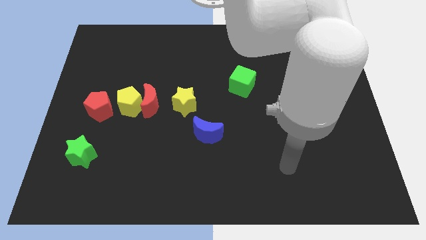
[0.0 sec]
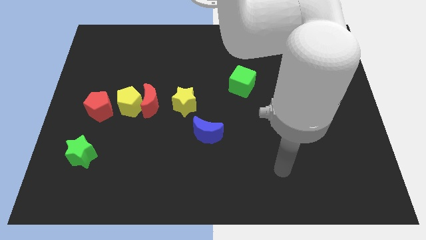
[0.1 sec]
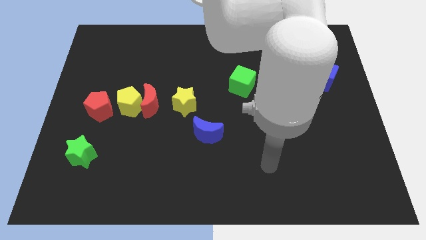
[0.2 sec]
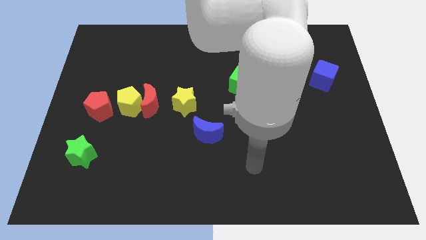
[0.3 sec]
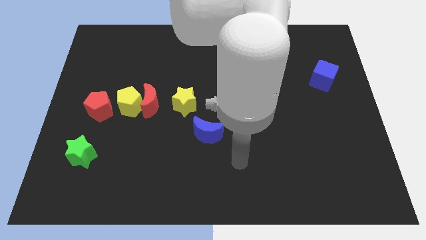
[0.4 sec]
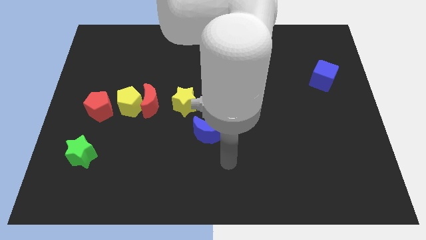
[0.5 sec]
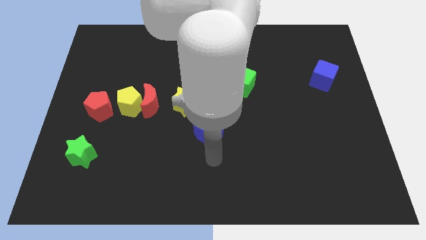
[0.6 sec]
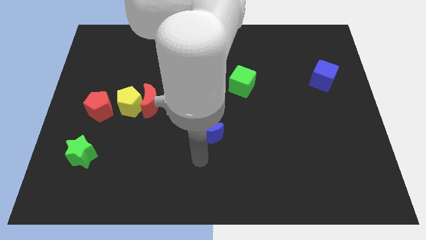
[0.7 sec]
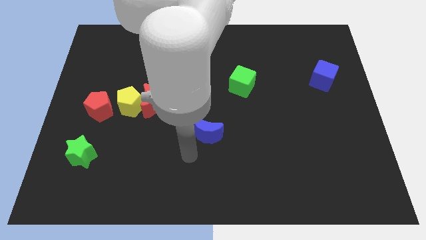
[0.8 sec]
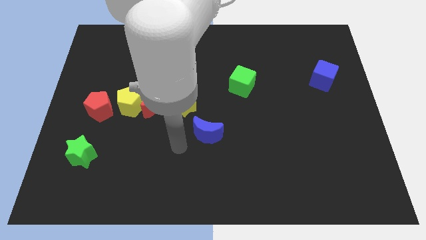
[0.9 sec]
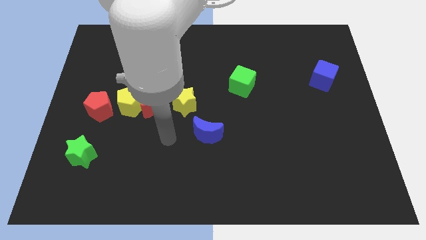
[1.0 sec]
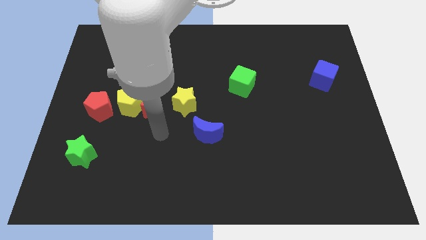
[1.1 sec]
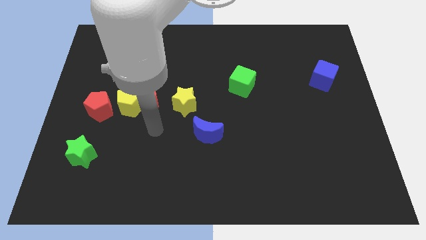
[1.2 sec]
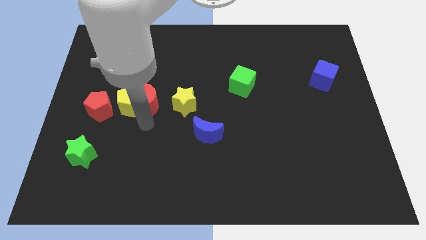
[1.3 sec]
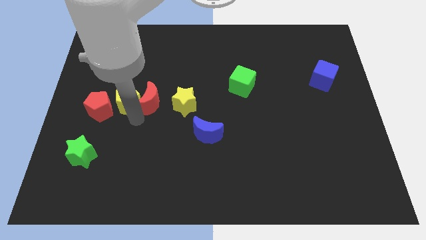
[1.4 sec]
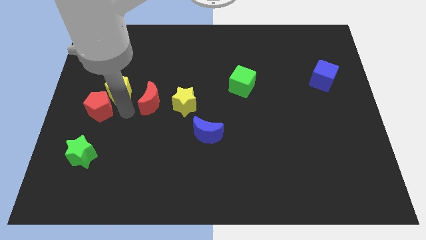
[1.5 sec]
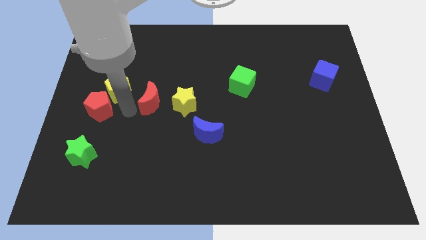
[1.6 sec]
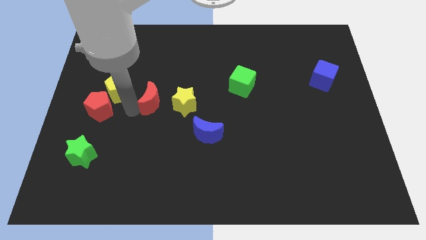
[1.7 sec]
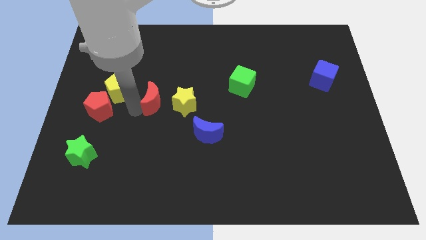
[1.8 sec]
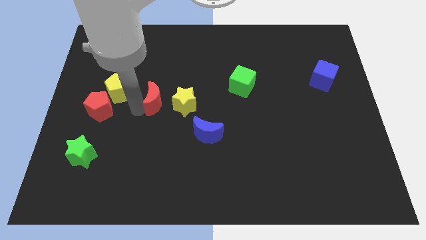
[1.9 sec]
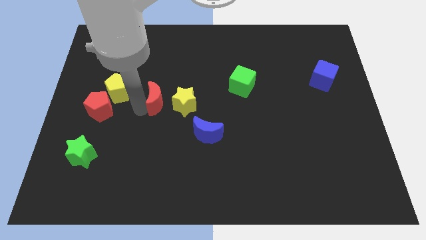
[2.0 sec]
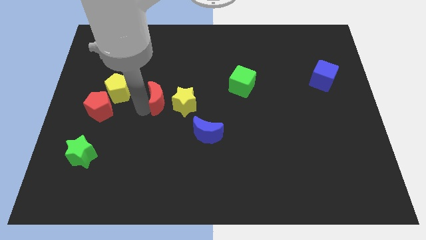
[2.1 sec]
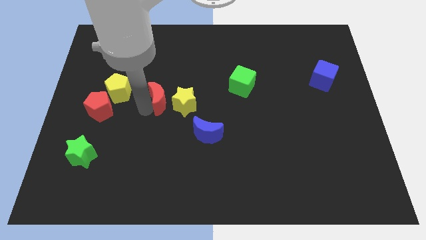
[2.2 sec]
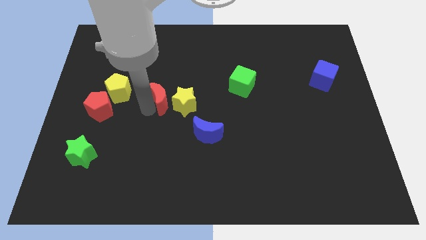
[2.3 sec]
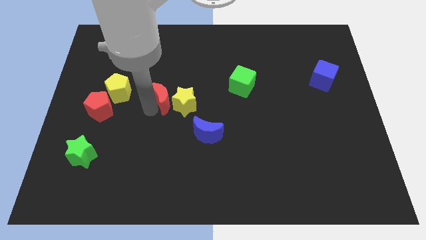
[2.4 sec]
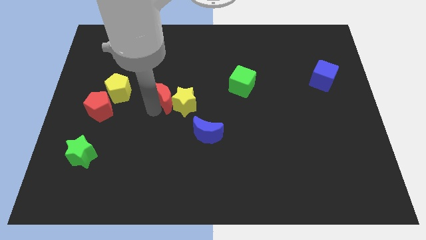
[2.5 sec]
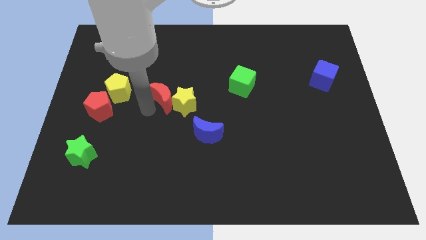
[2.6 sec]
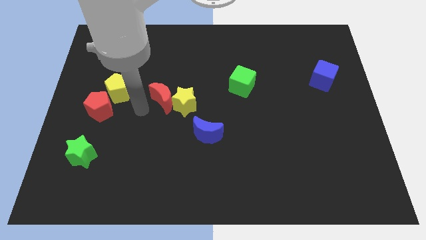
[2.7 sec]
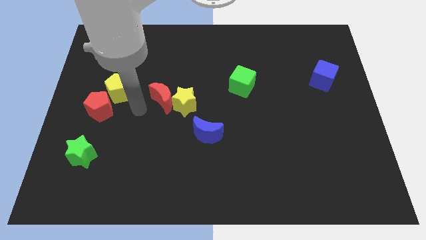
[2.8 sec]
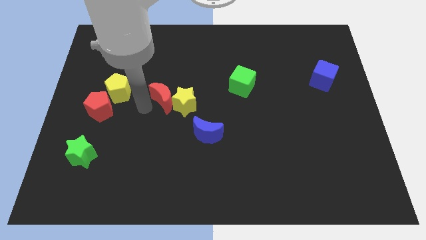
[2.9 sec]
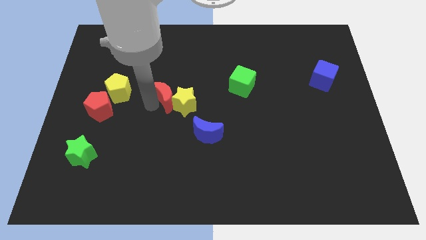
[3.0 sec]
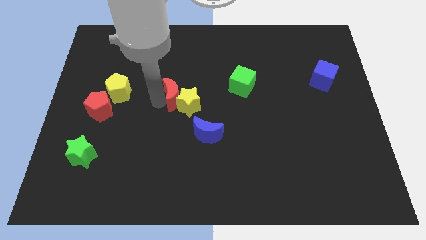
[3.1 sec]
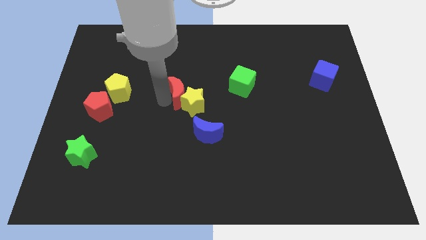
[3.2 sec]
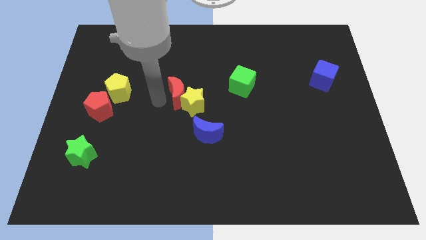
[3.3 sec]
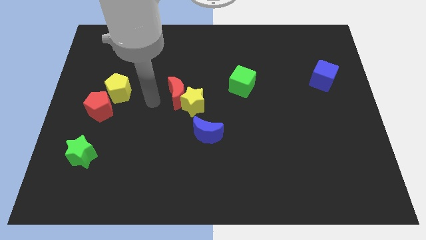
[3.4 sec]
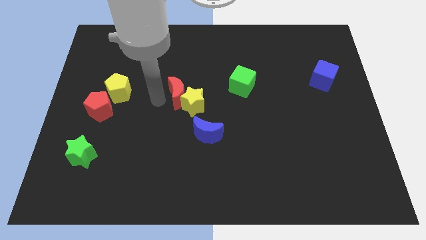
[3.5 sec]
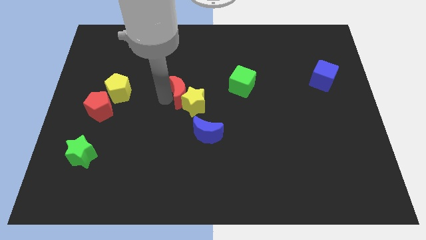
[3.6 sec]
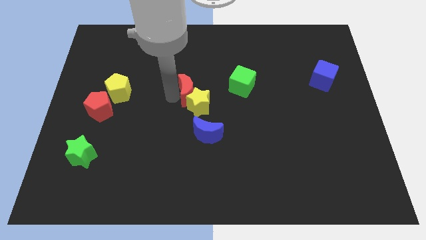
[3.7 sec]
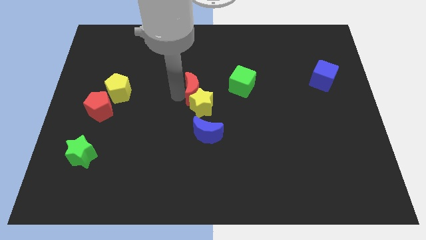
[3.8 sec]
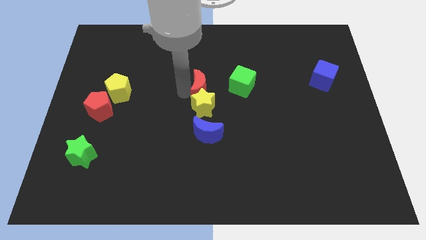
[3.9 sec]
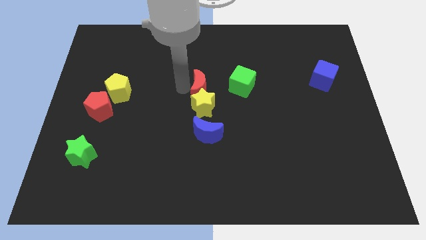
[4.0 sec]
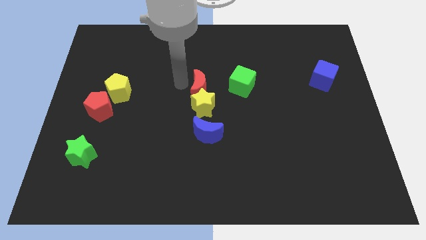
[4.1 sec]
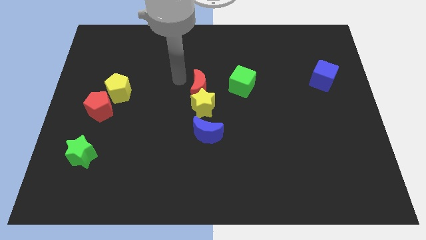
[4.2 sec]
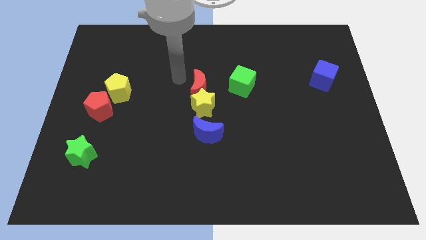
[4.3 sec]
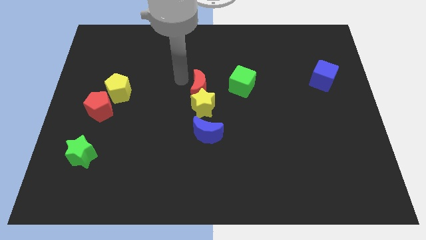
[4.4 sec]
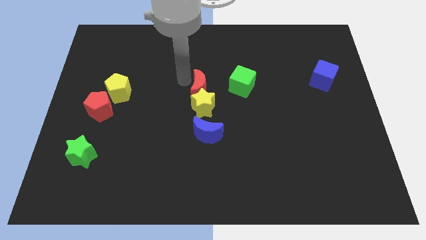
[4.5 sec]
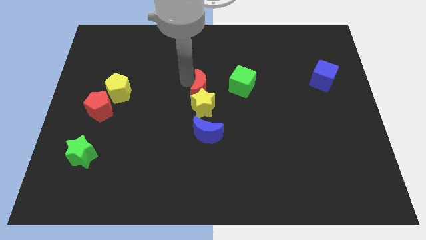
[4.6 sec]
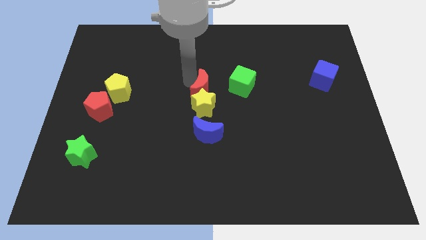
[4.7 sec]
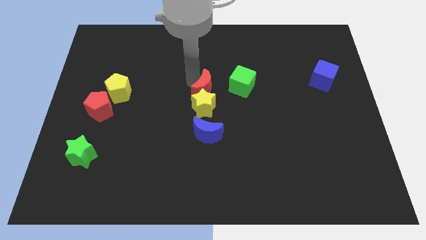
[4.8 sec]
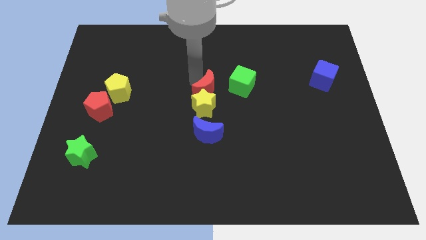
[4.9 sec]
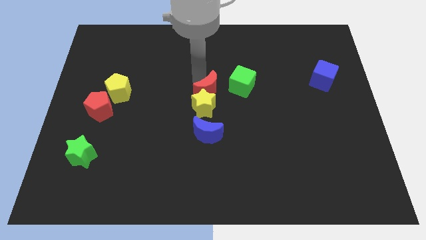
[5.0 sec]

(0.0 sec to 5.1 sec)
slide the red moon to the bottom left of the green cube

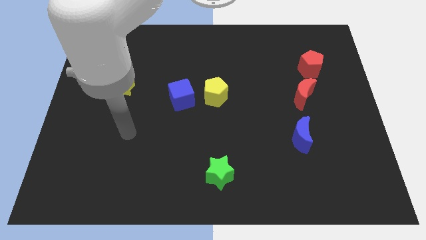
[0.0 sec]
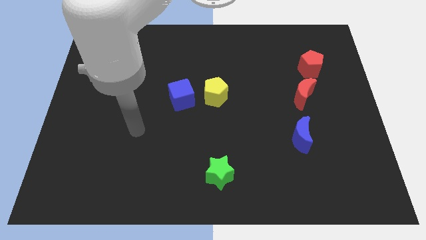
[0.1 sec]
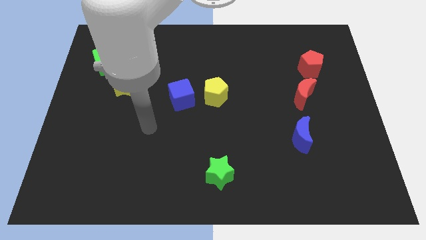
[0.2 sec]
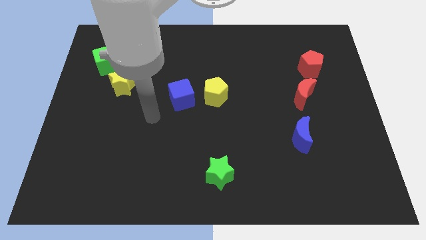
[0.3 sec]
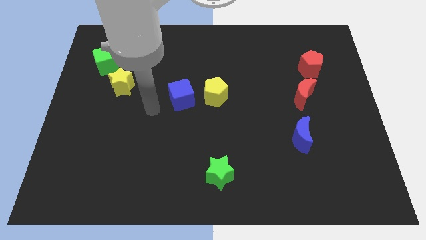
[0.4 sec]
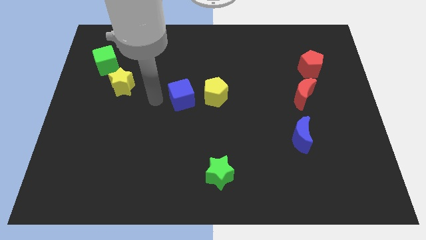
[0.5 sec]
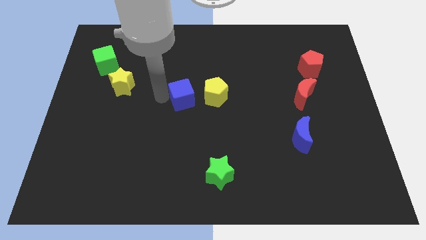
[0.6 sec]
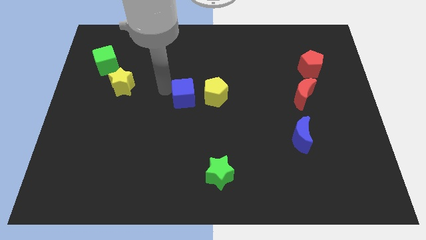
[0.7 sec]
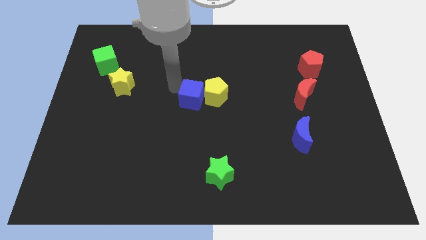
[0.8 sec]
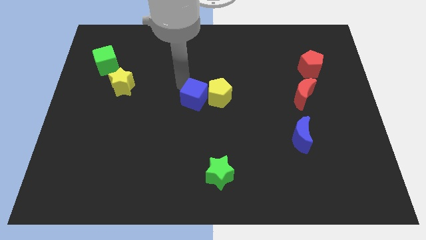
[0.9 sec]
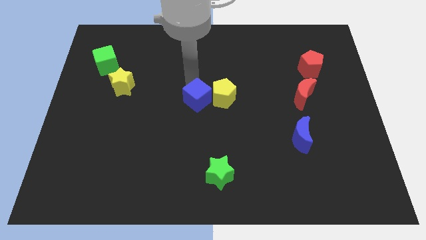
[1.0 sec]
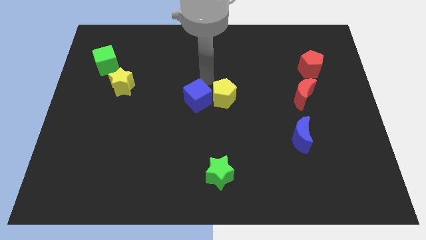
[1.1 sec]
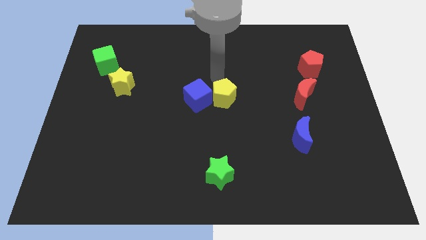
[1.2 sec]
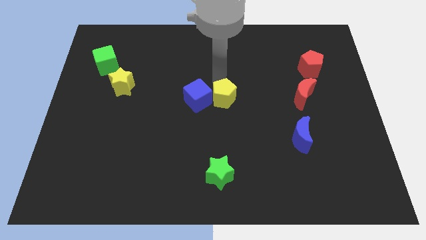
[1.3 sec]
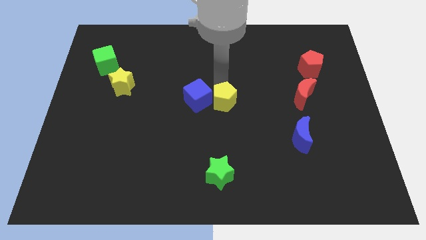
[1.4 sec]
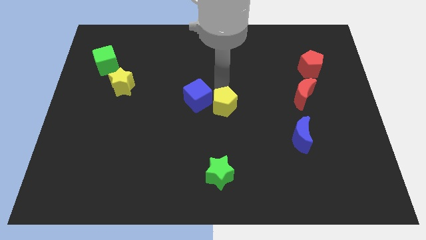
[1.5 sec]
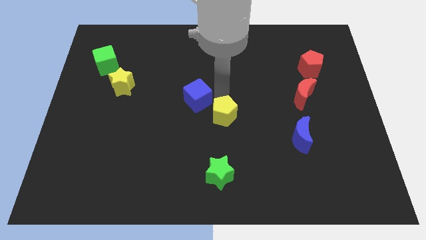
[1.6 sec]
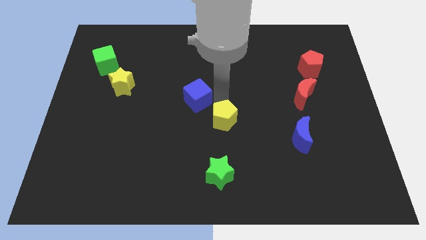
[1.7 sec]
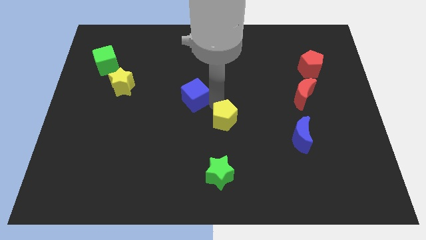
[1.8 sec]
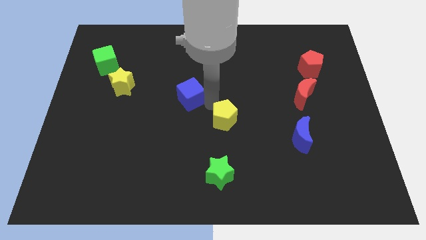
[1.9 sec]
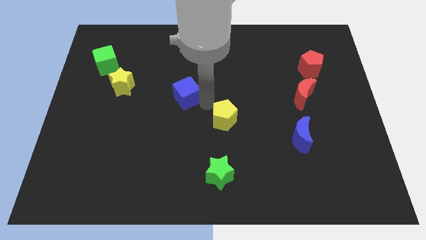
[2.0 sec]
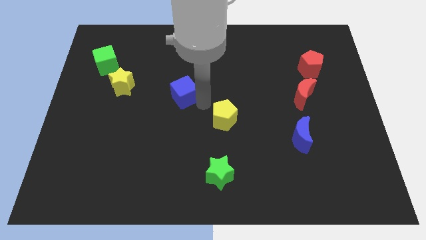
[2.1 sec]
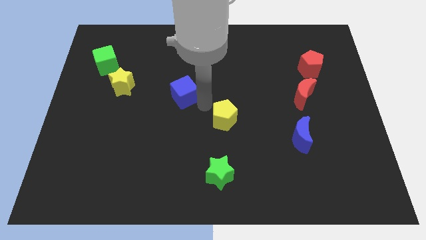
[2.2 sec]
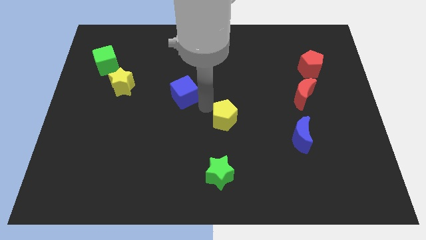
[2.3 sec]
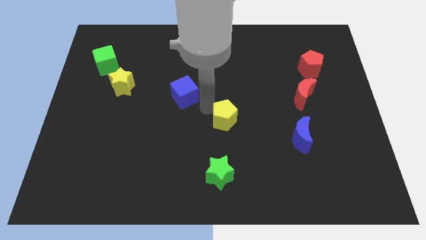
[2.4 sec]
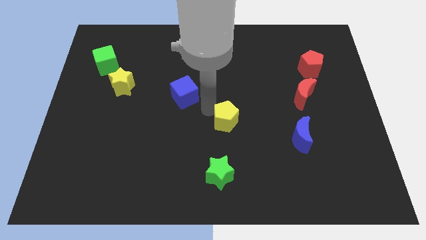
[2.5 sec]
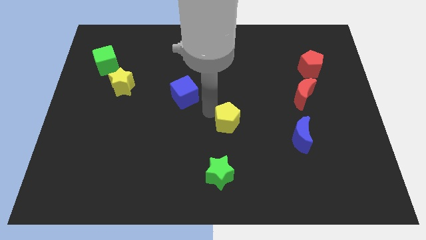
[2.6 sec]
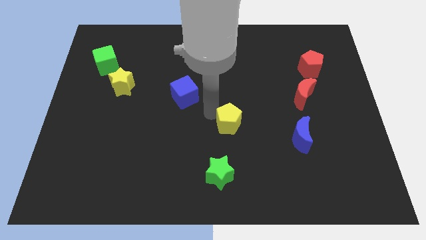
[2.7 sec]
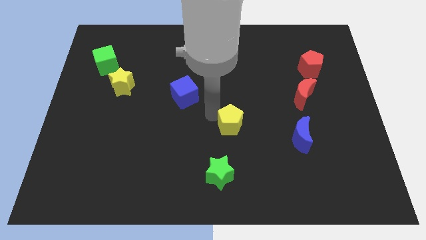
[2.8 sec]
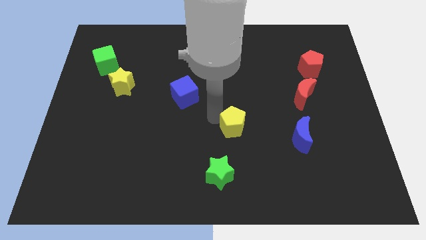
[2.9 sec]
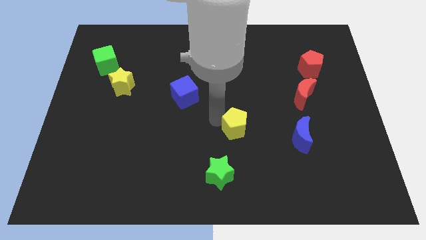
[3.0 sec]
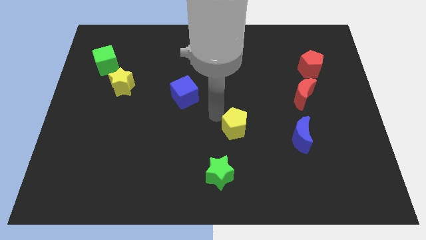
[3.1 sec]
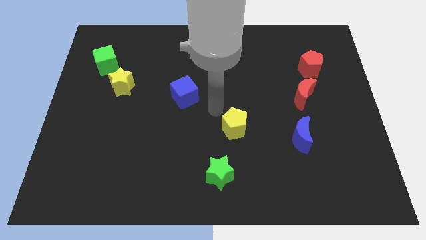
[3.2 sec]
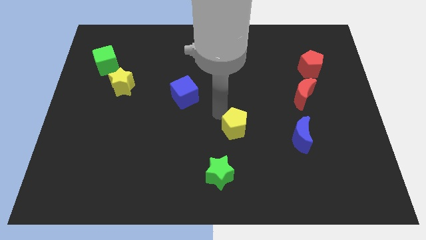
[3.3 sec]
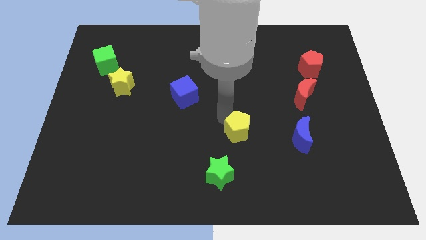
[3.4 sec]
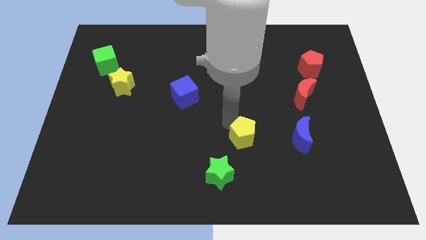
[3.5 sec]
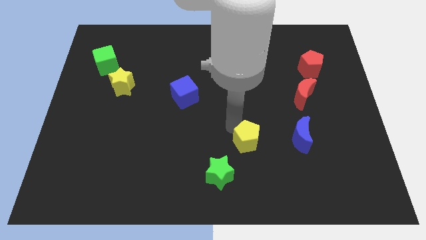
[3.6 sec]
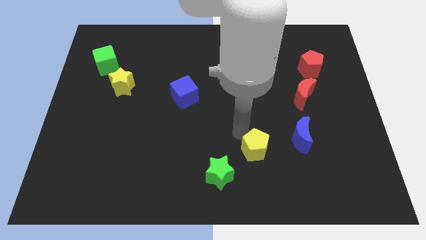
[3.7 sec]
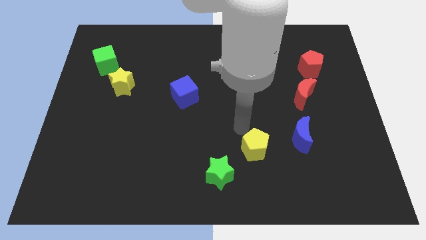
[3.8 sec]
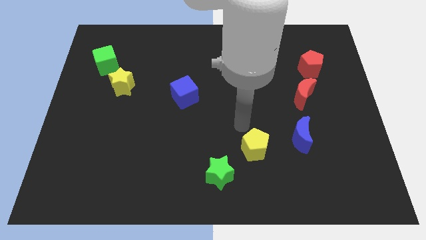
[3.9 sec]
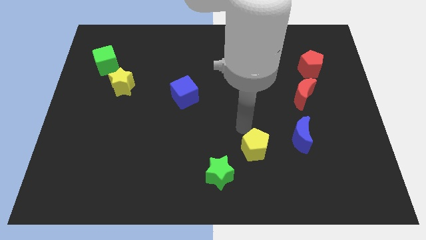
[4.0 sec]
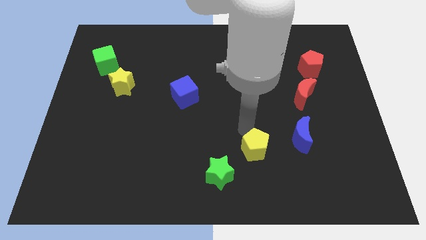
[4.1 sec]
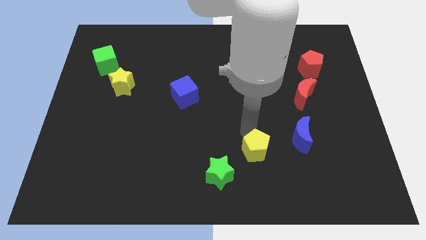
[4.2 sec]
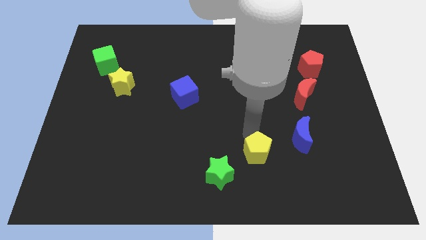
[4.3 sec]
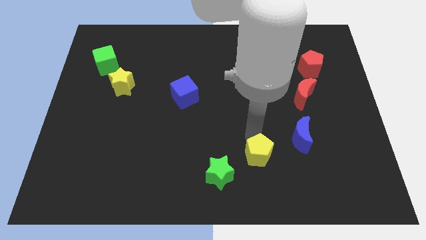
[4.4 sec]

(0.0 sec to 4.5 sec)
move the yellow pentagon right of the green star
